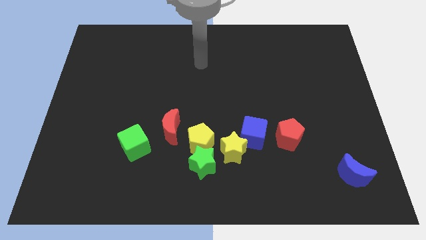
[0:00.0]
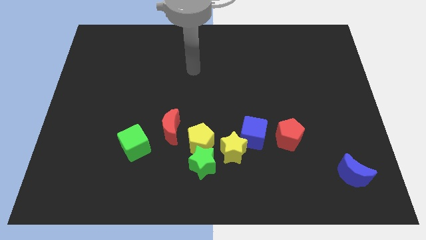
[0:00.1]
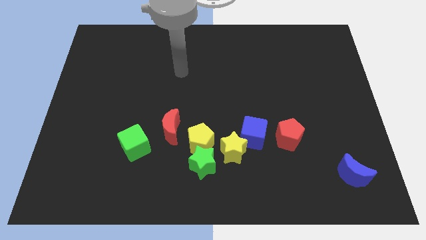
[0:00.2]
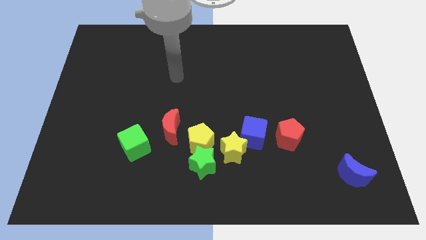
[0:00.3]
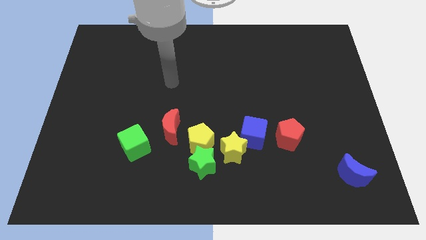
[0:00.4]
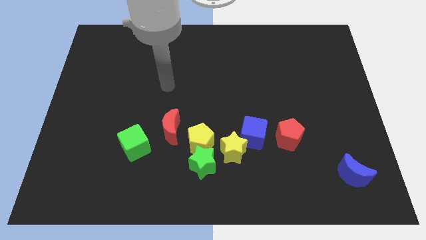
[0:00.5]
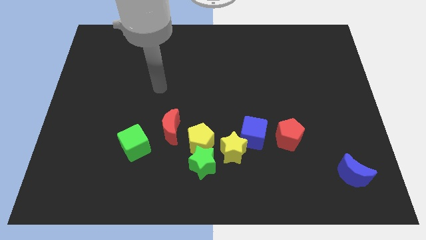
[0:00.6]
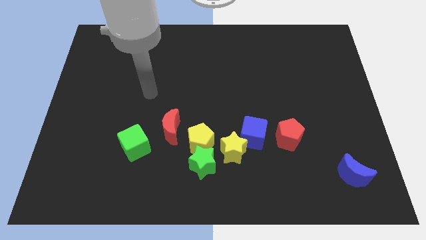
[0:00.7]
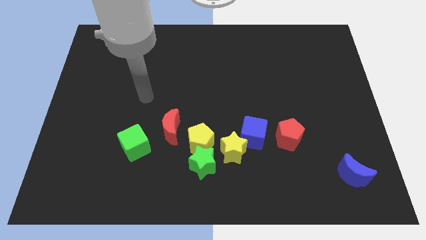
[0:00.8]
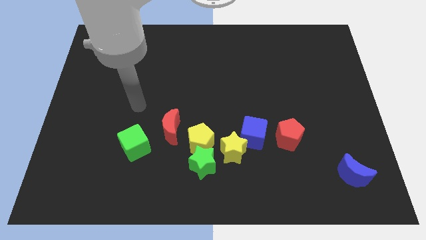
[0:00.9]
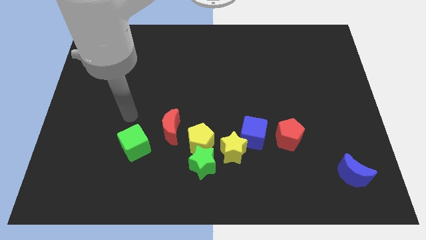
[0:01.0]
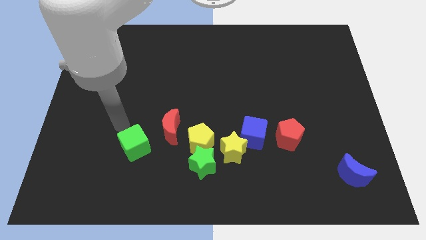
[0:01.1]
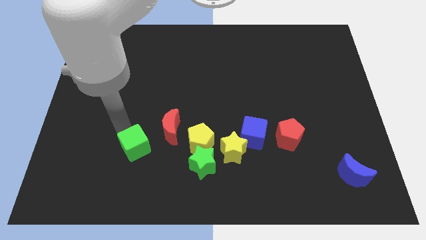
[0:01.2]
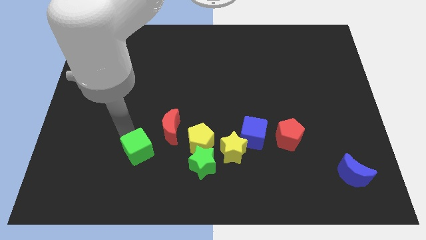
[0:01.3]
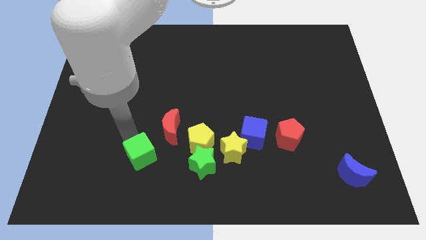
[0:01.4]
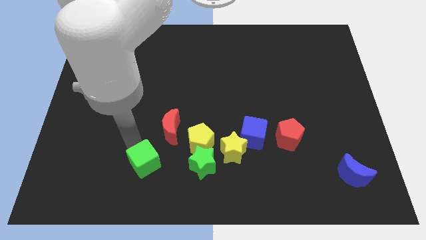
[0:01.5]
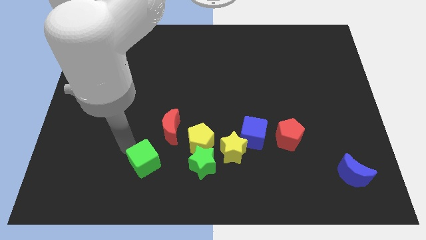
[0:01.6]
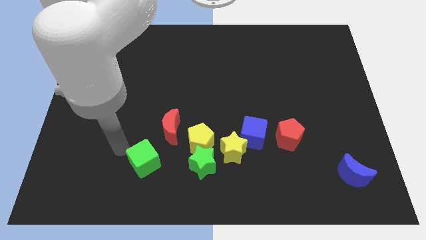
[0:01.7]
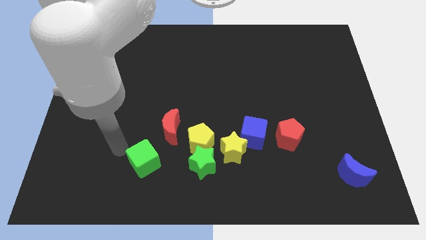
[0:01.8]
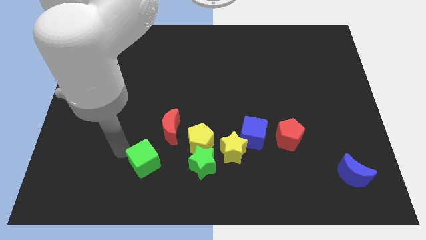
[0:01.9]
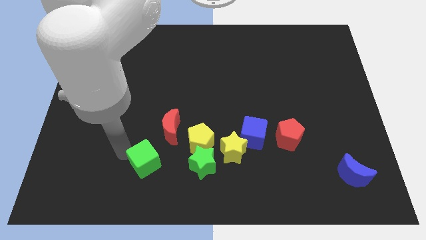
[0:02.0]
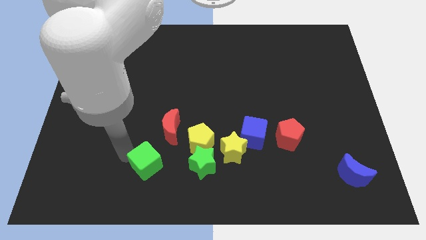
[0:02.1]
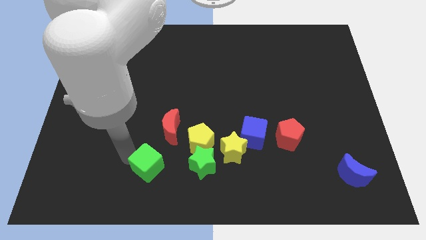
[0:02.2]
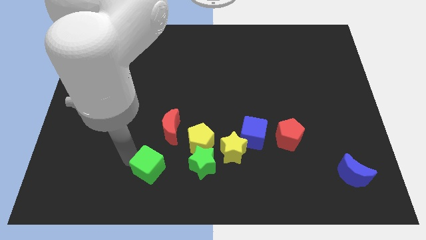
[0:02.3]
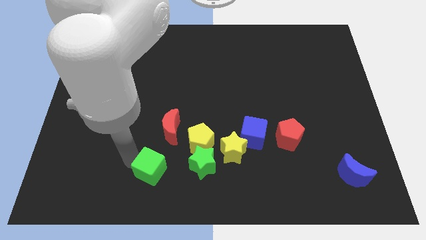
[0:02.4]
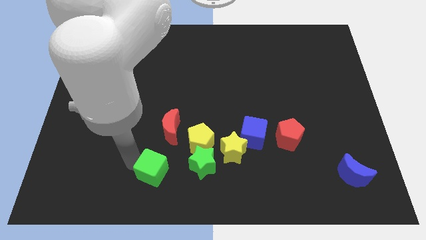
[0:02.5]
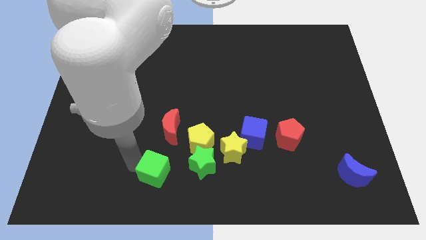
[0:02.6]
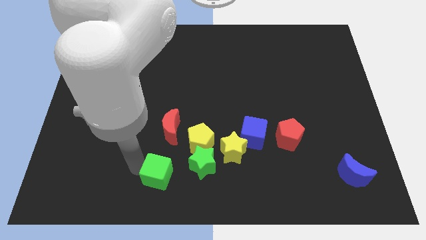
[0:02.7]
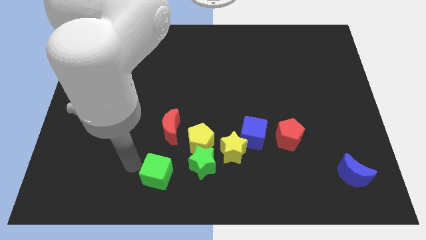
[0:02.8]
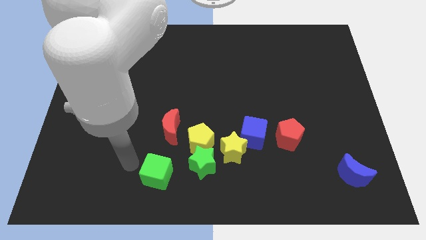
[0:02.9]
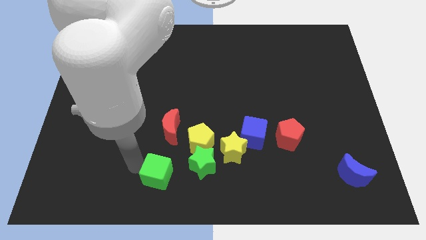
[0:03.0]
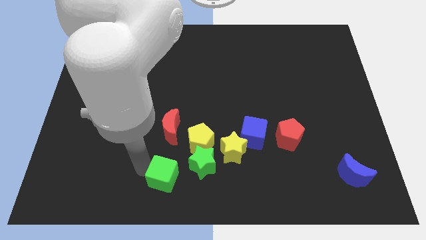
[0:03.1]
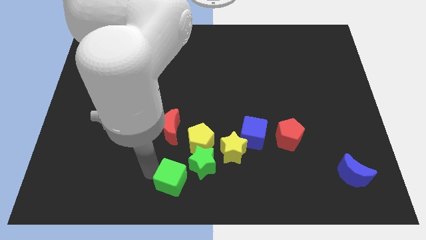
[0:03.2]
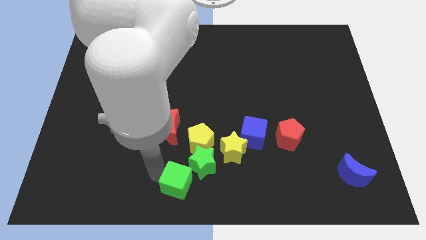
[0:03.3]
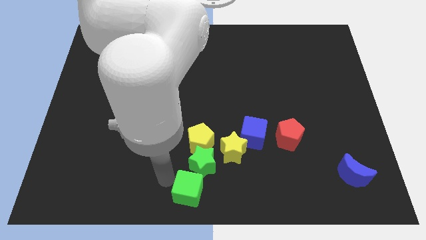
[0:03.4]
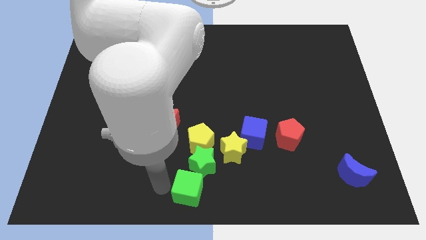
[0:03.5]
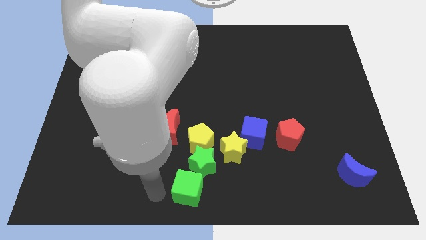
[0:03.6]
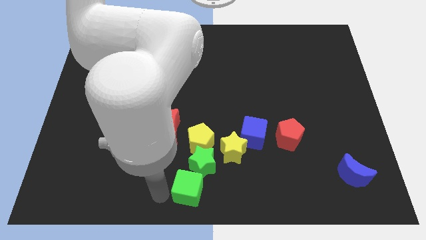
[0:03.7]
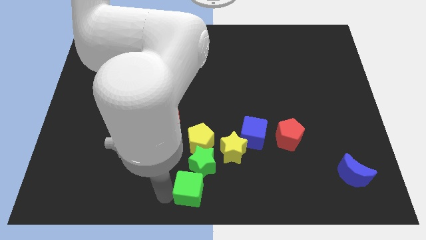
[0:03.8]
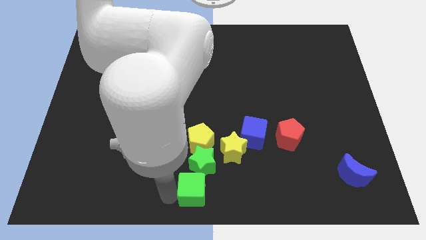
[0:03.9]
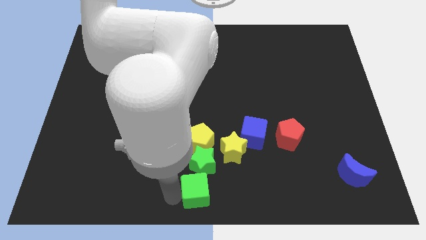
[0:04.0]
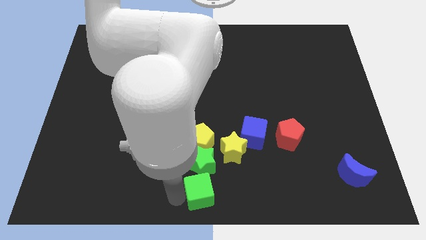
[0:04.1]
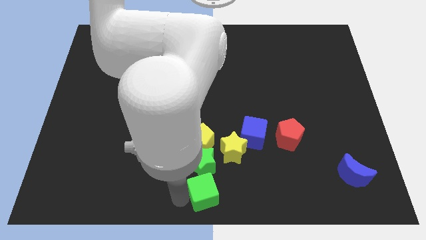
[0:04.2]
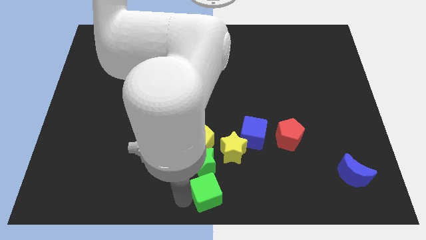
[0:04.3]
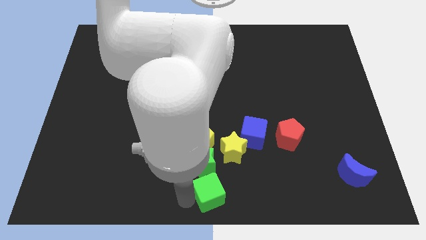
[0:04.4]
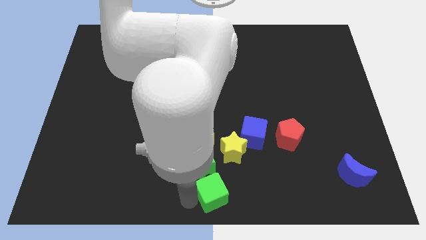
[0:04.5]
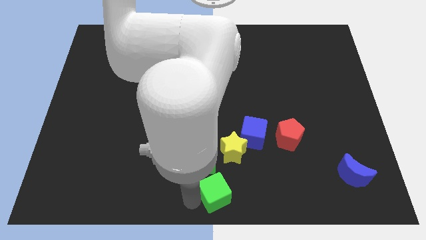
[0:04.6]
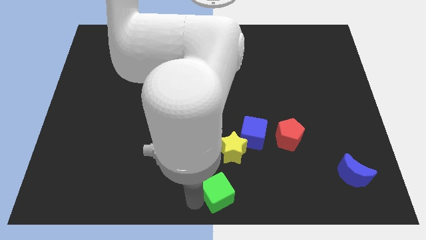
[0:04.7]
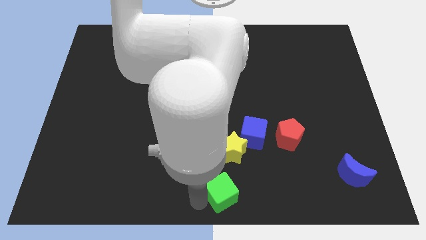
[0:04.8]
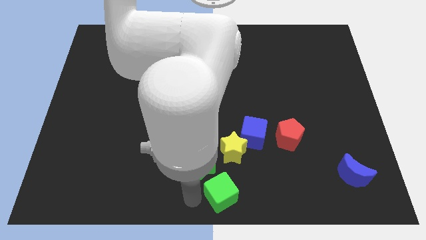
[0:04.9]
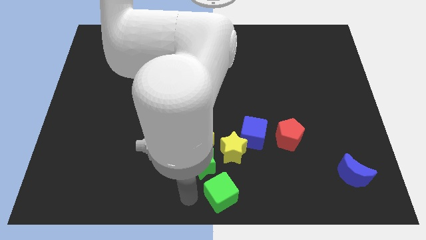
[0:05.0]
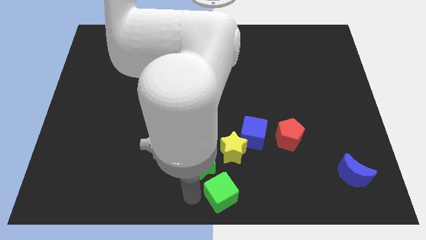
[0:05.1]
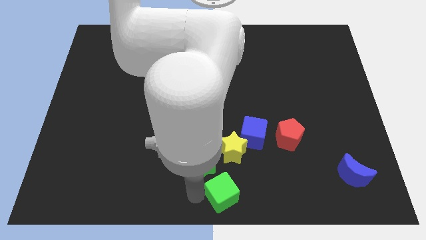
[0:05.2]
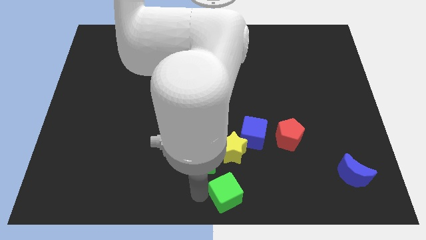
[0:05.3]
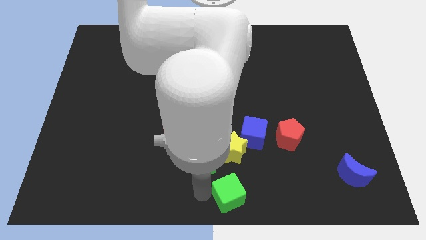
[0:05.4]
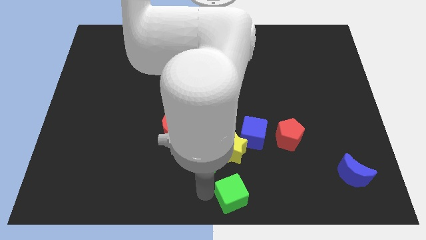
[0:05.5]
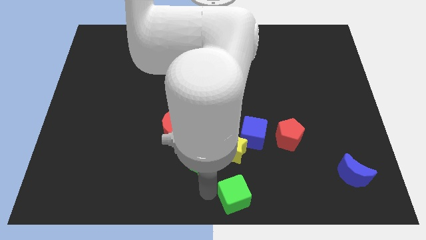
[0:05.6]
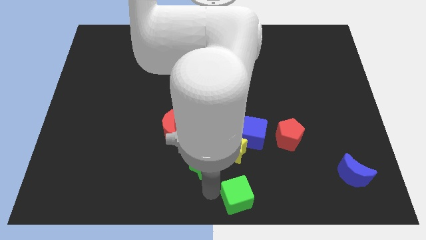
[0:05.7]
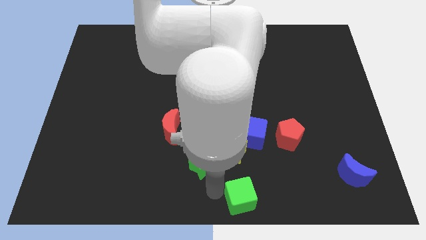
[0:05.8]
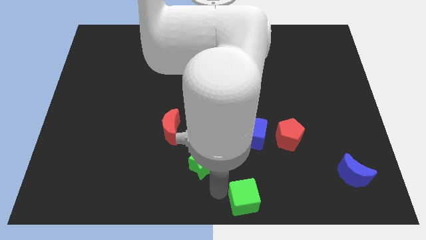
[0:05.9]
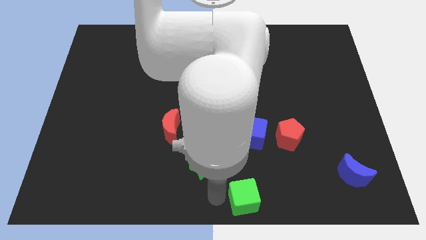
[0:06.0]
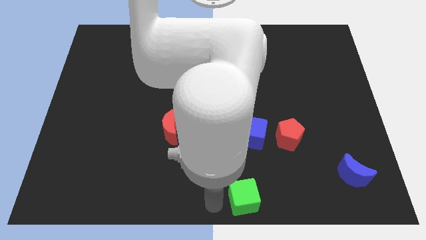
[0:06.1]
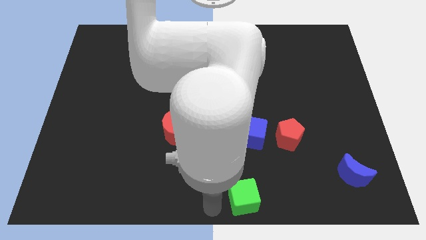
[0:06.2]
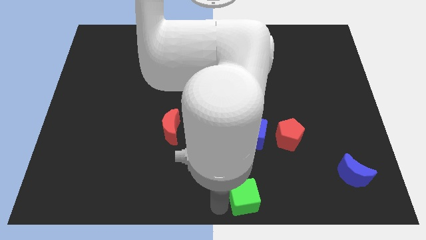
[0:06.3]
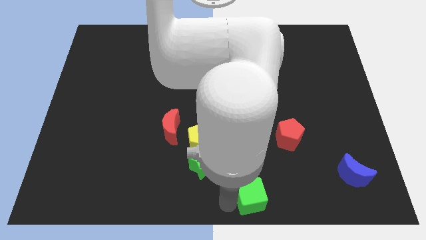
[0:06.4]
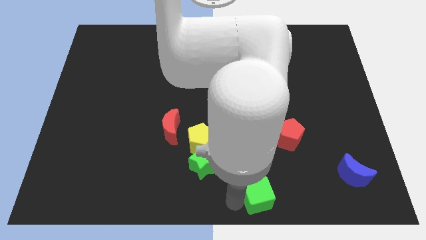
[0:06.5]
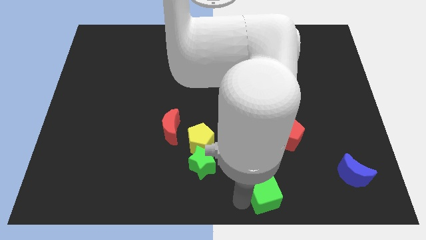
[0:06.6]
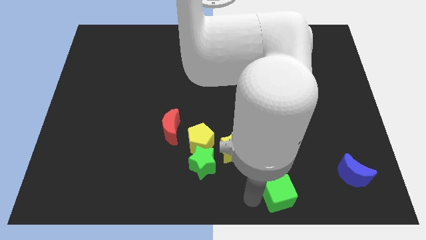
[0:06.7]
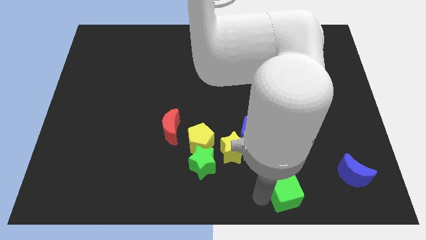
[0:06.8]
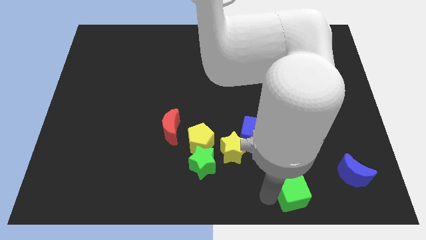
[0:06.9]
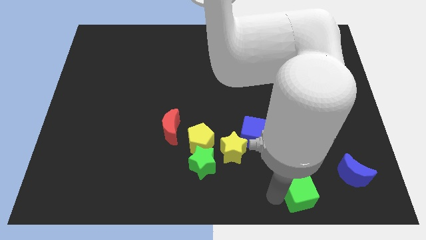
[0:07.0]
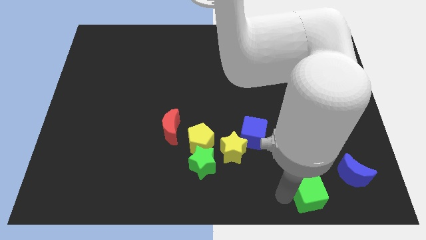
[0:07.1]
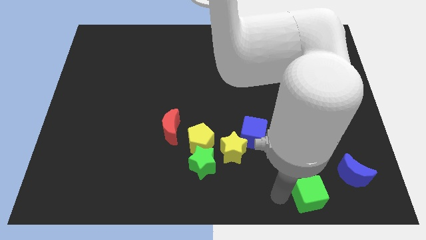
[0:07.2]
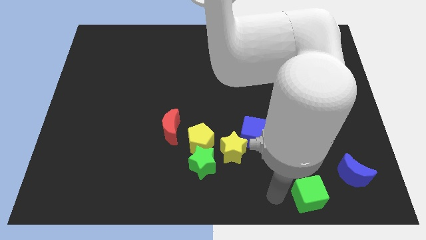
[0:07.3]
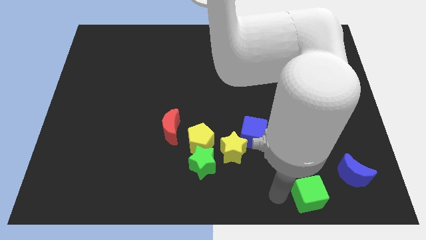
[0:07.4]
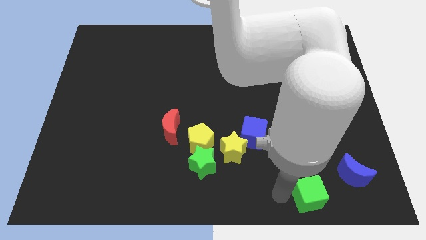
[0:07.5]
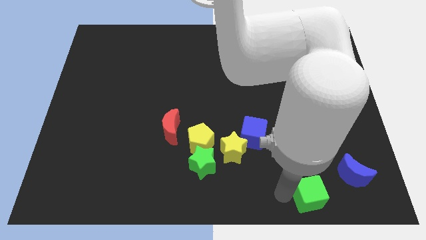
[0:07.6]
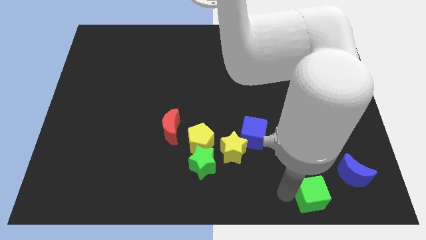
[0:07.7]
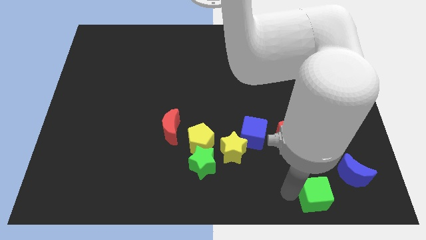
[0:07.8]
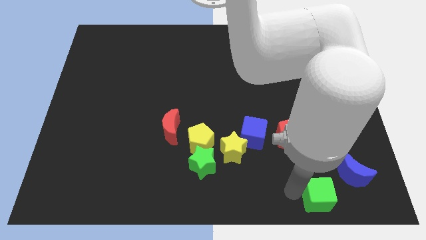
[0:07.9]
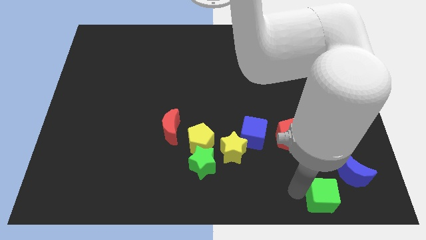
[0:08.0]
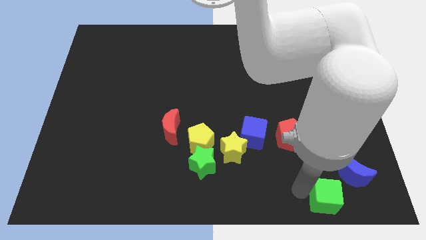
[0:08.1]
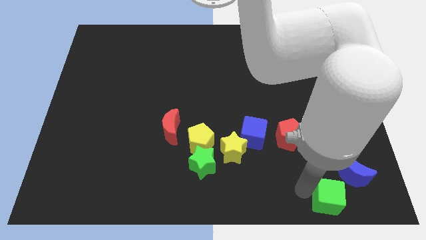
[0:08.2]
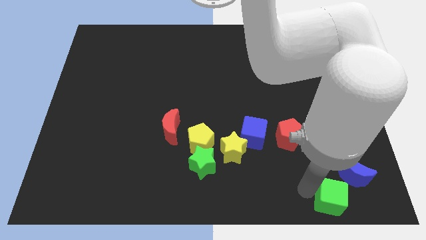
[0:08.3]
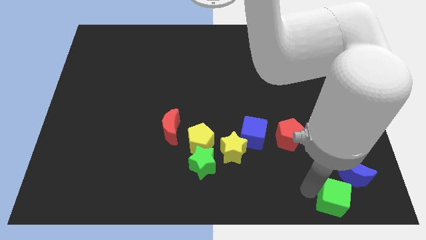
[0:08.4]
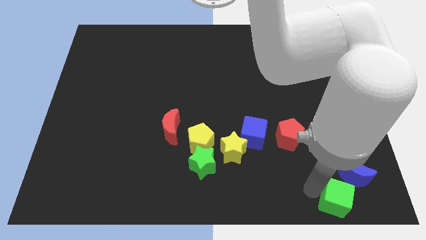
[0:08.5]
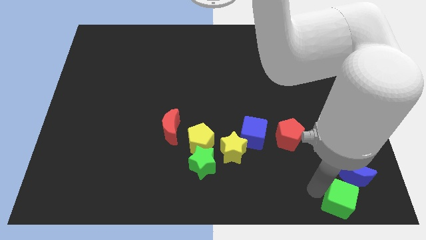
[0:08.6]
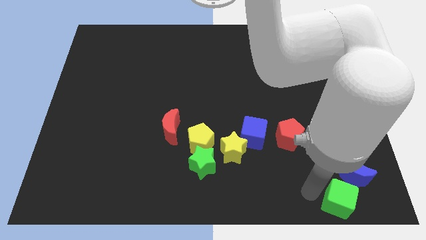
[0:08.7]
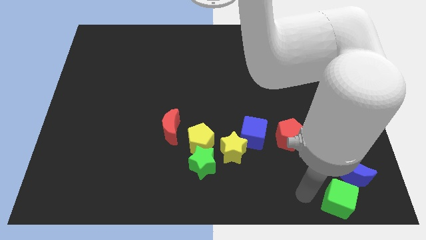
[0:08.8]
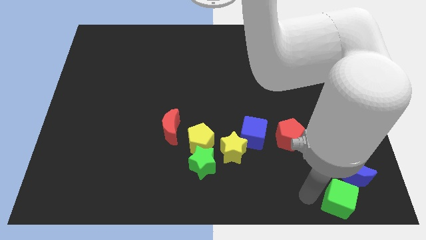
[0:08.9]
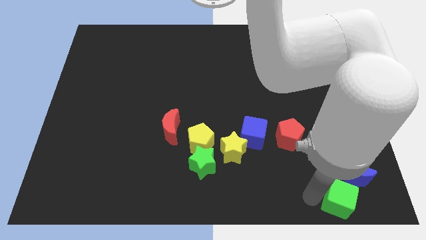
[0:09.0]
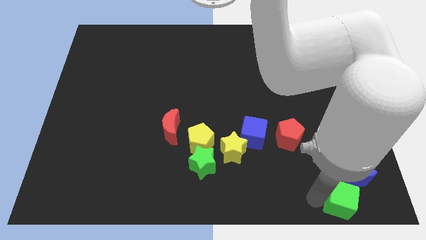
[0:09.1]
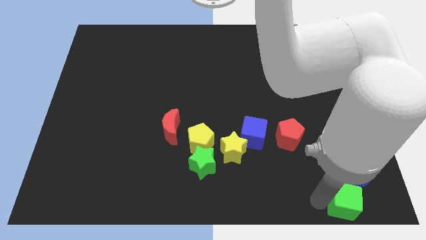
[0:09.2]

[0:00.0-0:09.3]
move the green cube to the bottom right of the board
